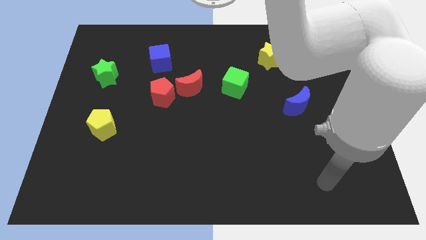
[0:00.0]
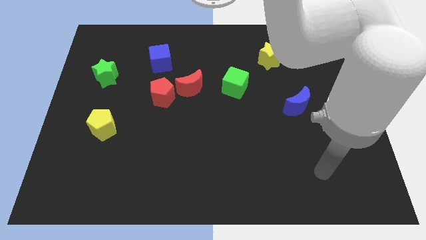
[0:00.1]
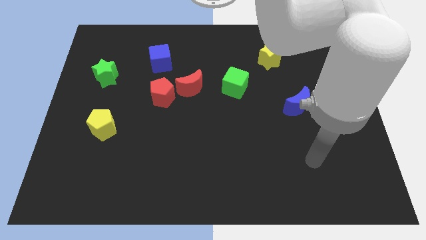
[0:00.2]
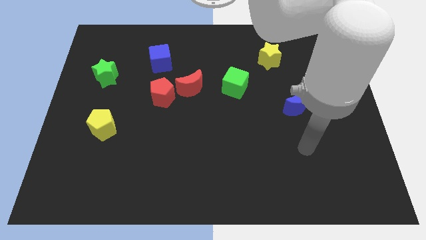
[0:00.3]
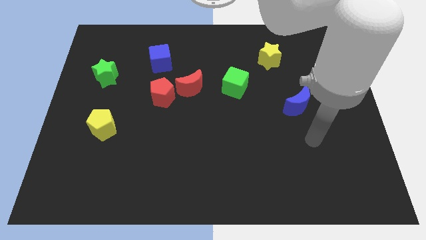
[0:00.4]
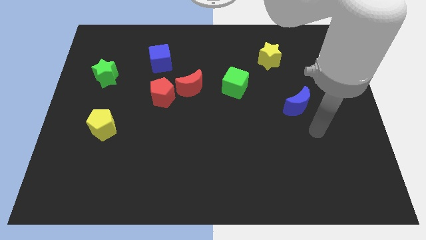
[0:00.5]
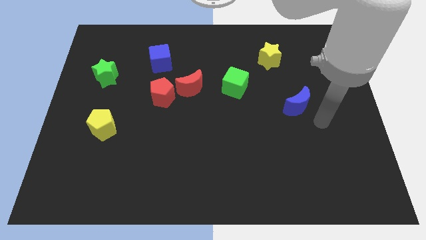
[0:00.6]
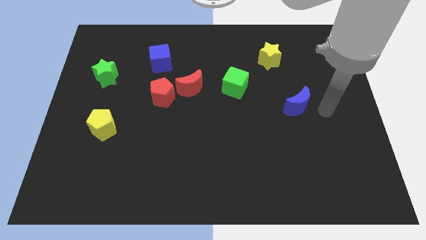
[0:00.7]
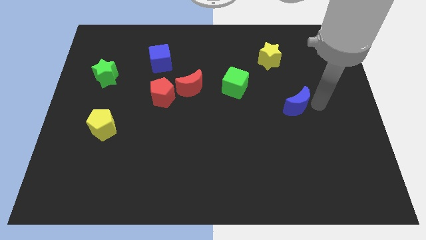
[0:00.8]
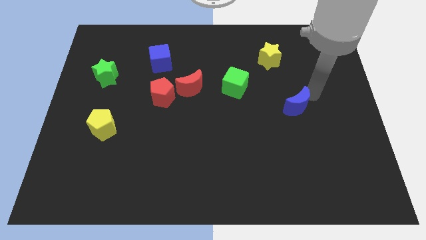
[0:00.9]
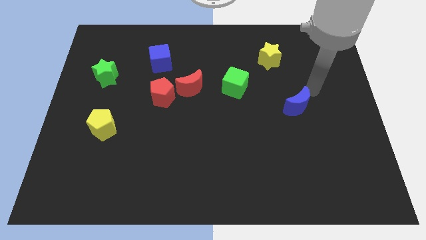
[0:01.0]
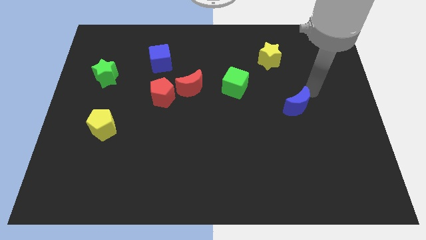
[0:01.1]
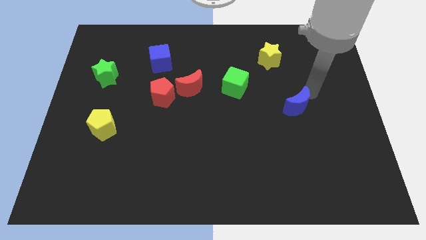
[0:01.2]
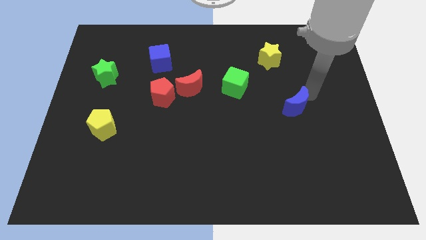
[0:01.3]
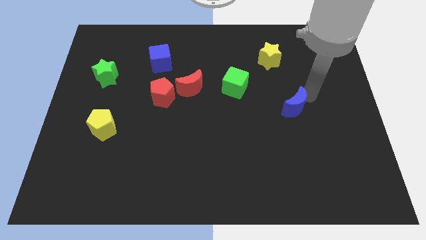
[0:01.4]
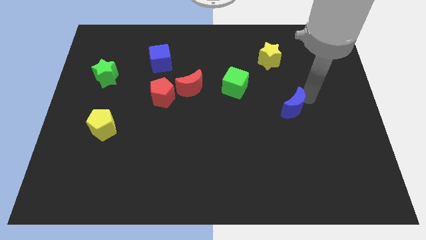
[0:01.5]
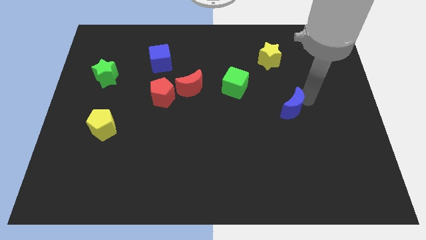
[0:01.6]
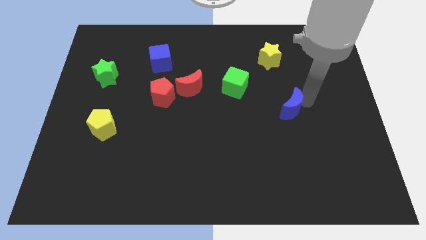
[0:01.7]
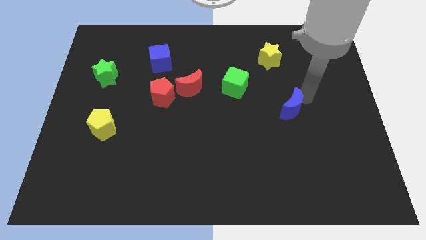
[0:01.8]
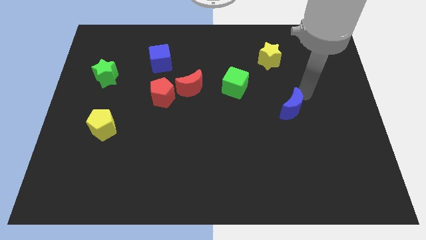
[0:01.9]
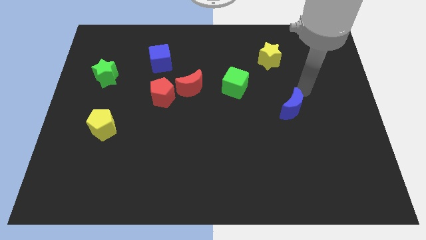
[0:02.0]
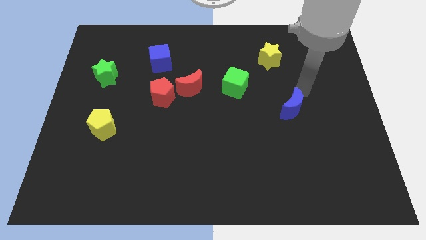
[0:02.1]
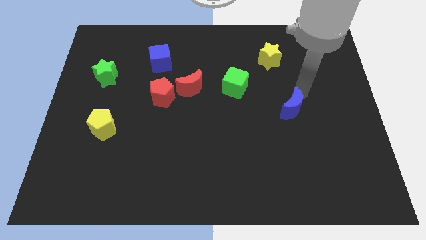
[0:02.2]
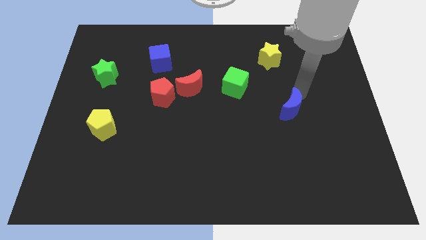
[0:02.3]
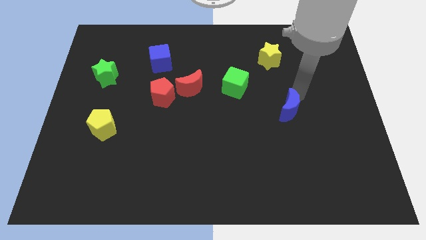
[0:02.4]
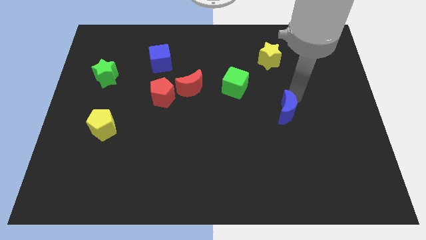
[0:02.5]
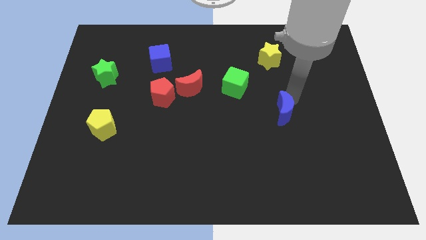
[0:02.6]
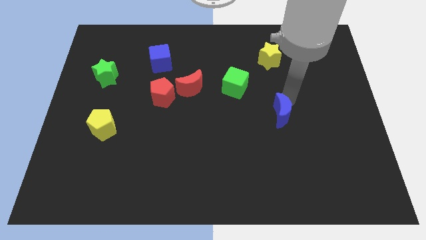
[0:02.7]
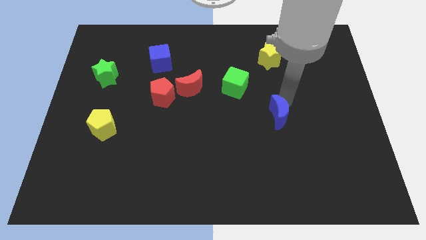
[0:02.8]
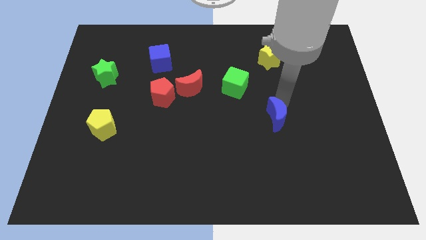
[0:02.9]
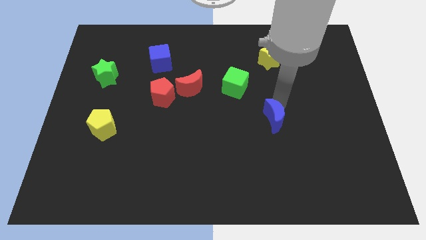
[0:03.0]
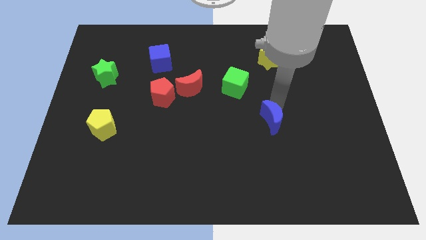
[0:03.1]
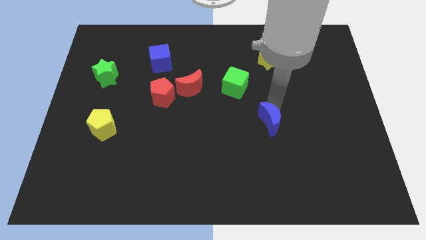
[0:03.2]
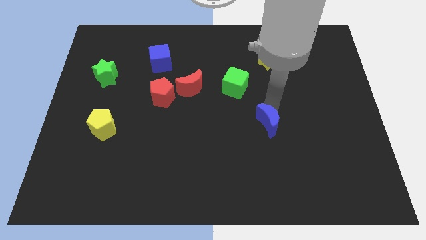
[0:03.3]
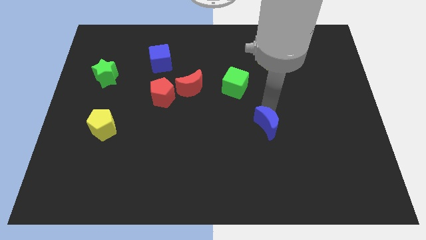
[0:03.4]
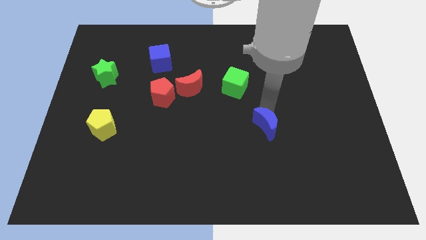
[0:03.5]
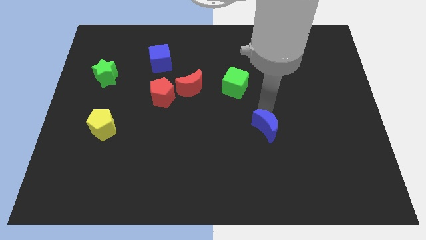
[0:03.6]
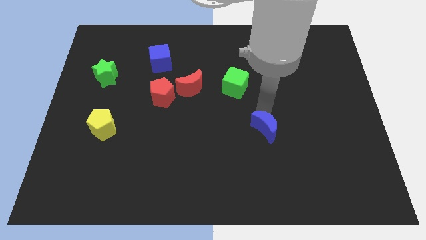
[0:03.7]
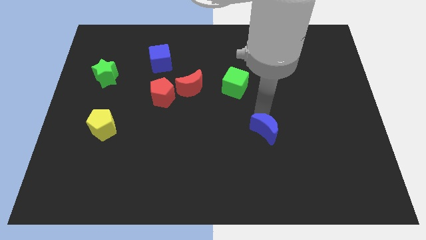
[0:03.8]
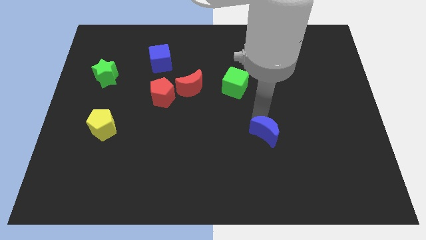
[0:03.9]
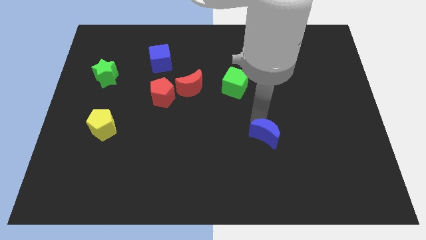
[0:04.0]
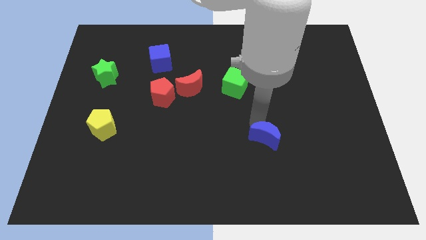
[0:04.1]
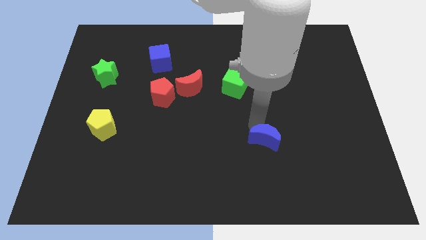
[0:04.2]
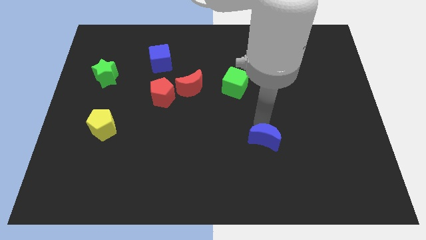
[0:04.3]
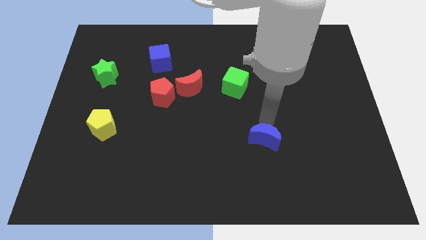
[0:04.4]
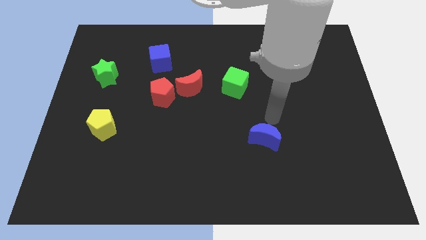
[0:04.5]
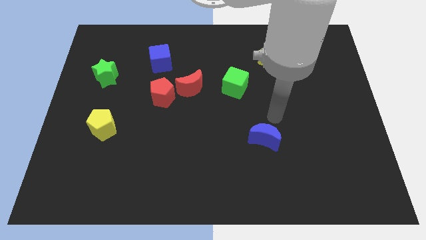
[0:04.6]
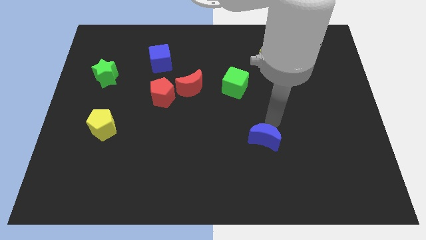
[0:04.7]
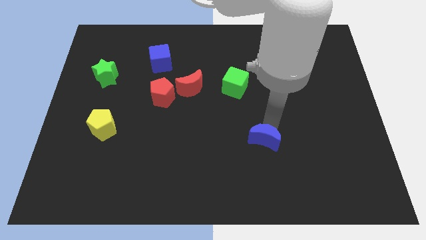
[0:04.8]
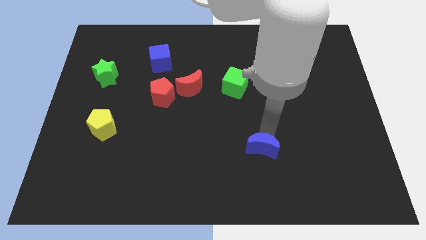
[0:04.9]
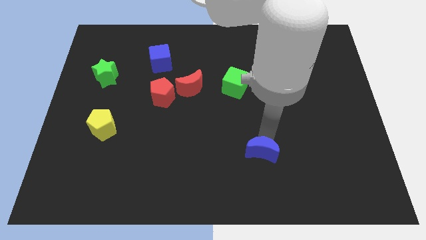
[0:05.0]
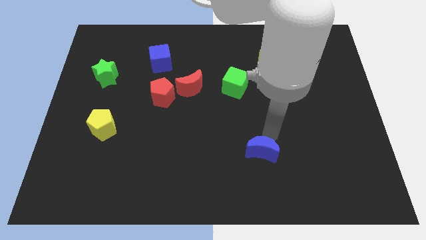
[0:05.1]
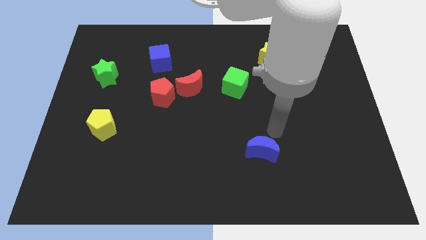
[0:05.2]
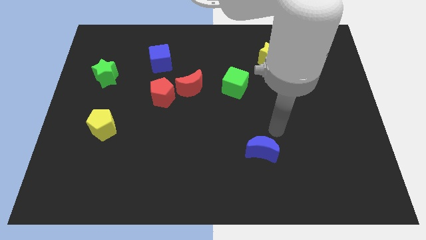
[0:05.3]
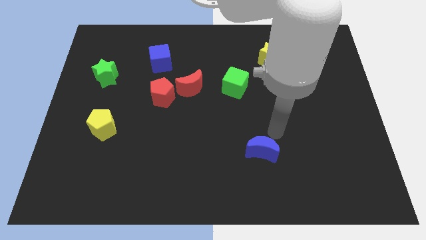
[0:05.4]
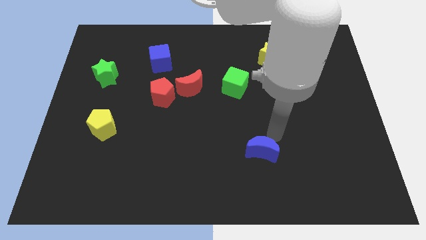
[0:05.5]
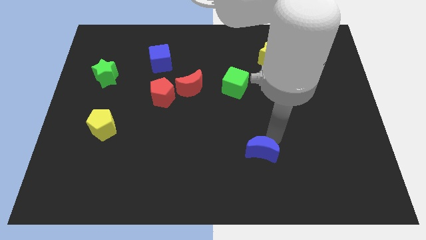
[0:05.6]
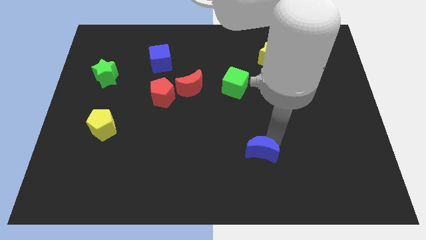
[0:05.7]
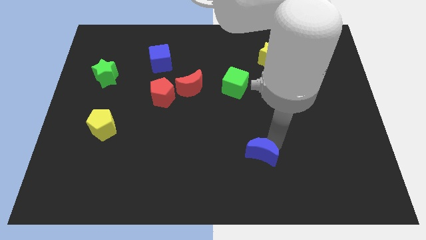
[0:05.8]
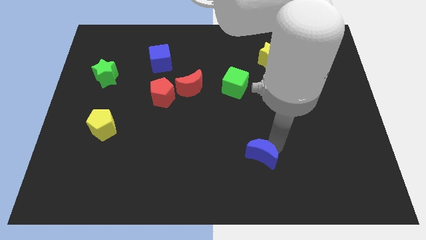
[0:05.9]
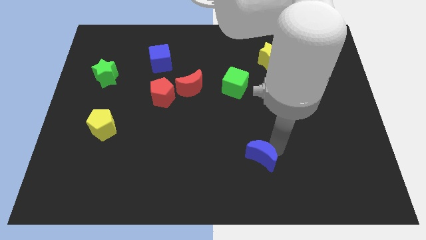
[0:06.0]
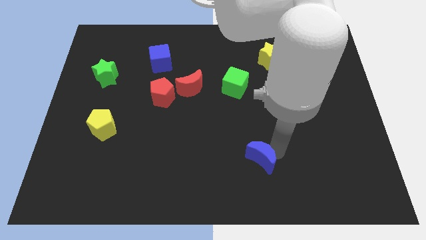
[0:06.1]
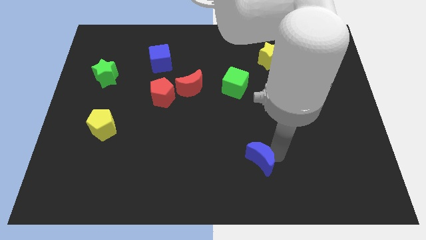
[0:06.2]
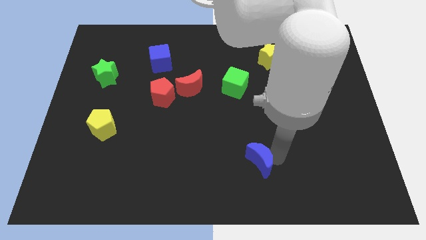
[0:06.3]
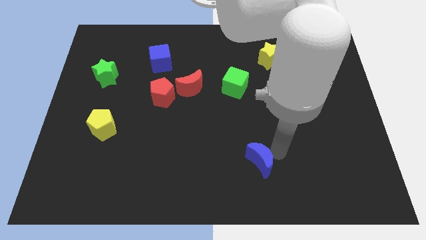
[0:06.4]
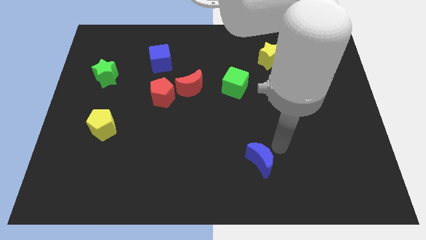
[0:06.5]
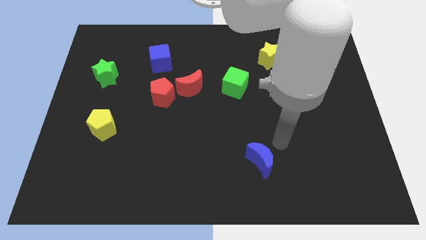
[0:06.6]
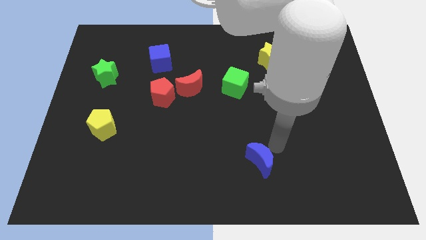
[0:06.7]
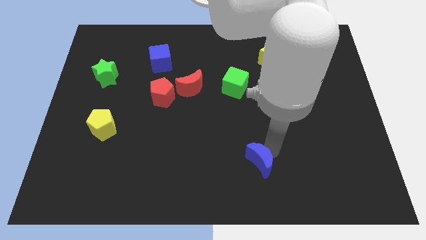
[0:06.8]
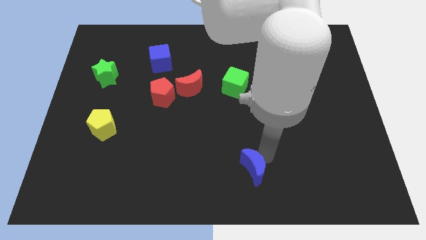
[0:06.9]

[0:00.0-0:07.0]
slide the blue moon to the bottom
